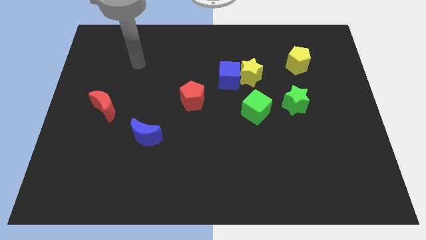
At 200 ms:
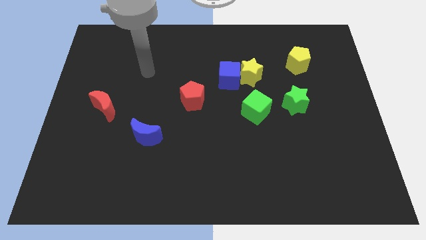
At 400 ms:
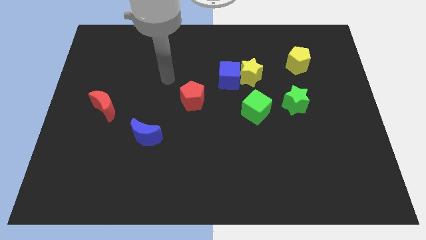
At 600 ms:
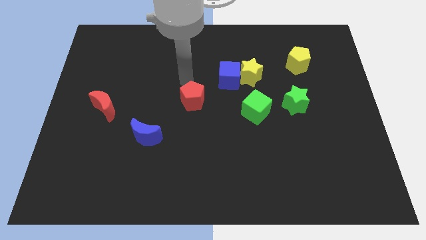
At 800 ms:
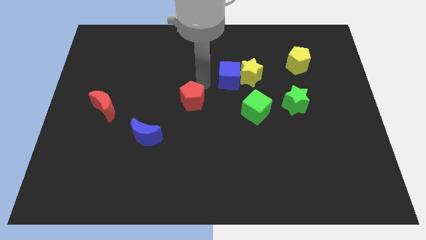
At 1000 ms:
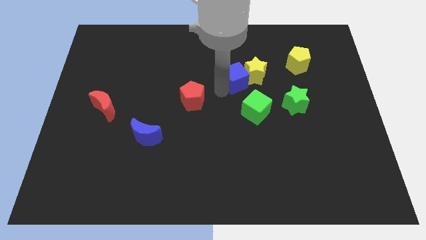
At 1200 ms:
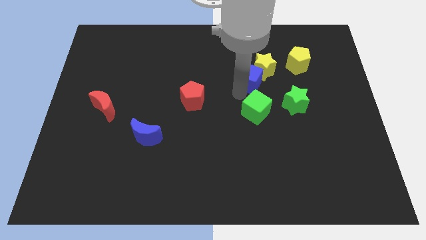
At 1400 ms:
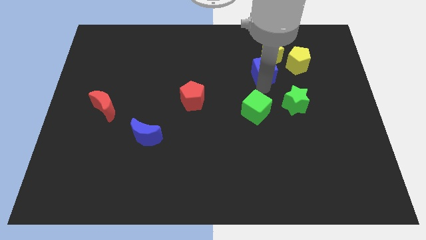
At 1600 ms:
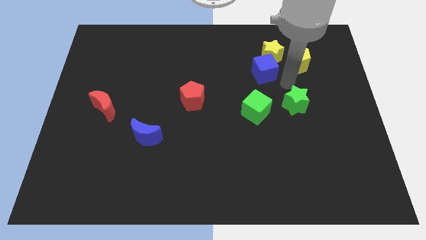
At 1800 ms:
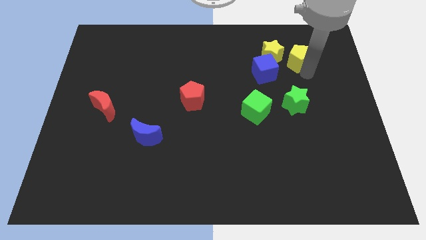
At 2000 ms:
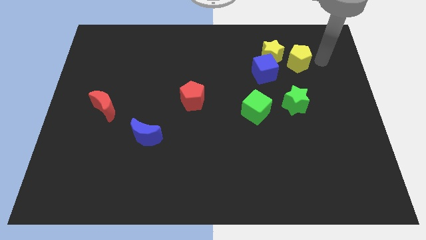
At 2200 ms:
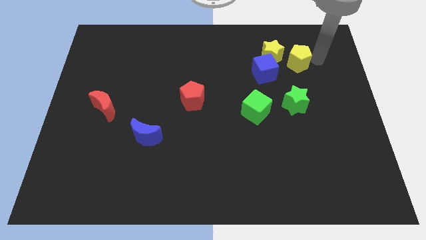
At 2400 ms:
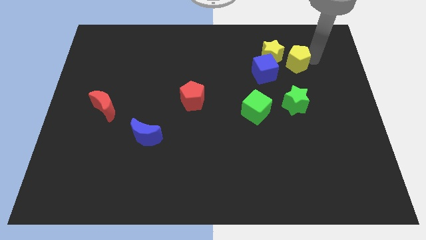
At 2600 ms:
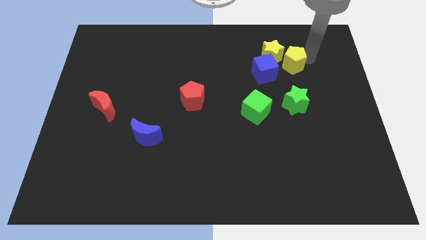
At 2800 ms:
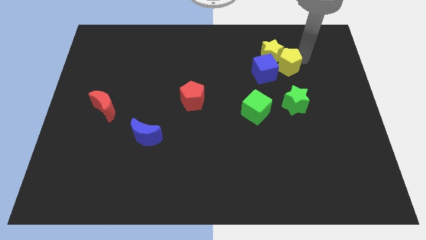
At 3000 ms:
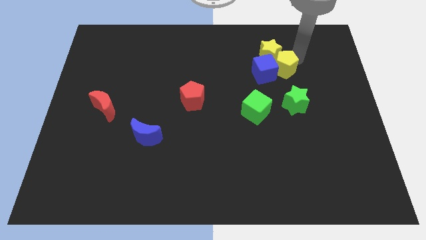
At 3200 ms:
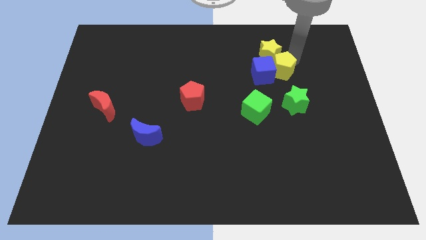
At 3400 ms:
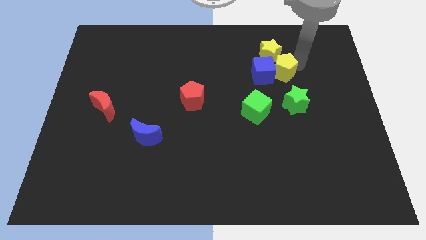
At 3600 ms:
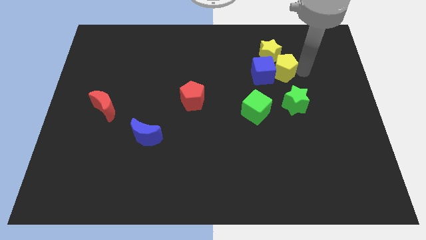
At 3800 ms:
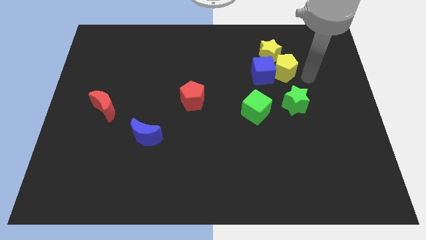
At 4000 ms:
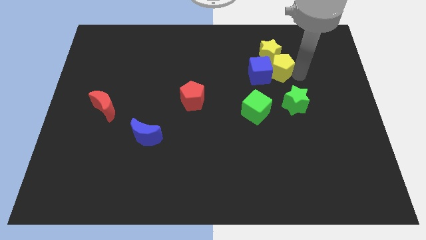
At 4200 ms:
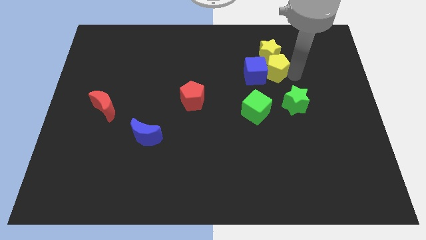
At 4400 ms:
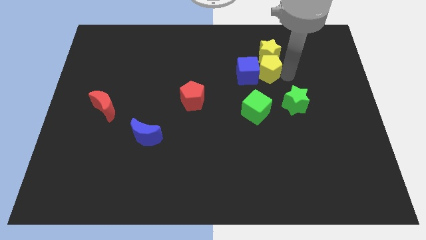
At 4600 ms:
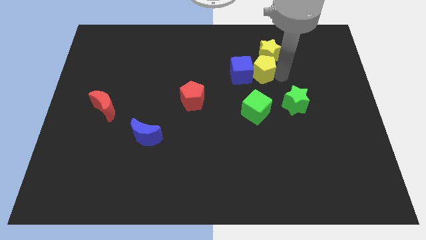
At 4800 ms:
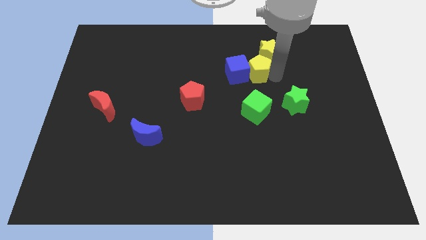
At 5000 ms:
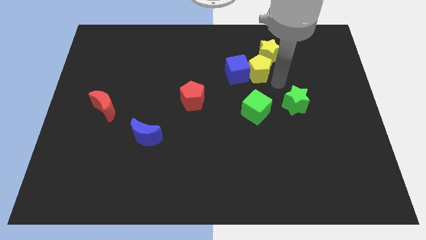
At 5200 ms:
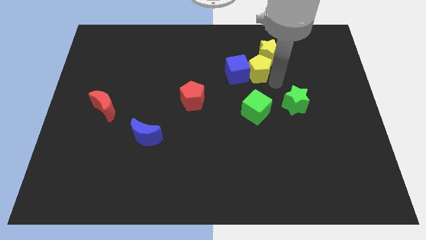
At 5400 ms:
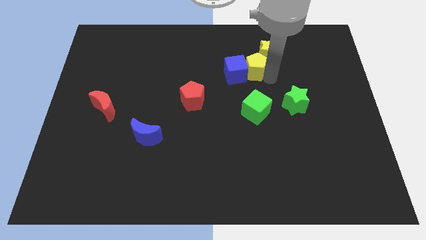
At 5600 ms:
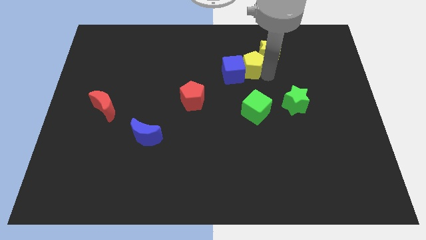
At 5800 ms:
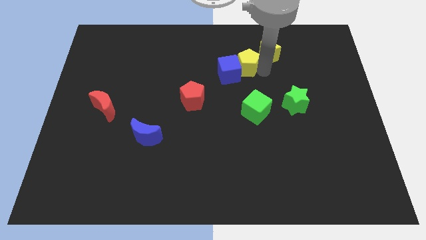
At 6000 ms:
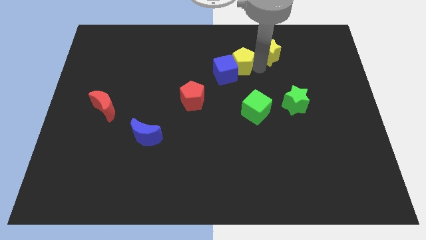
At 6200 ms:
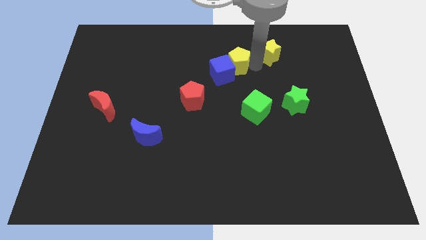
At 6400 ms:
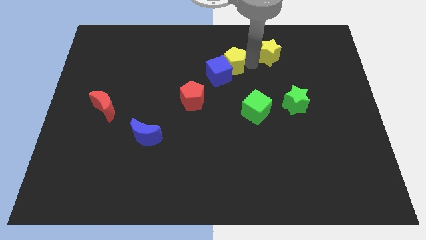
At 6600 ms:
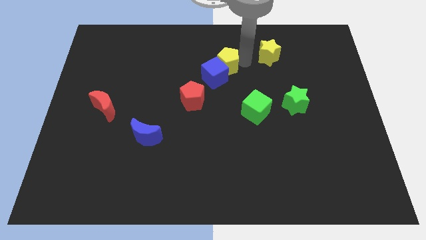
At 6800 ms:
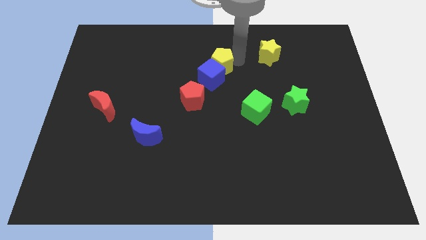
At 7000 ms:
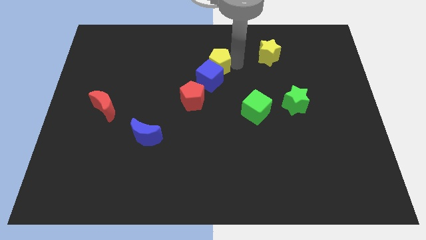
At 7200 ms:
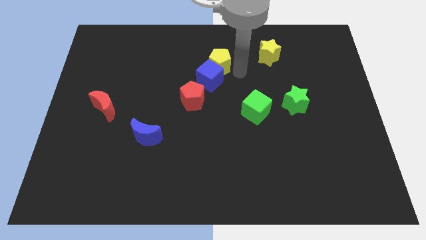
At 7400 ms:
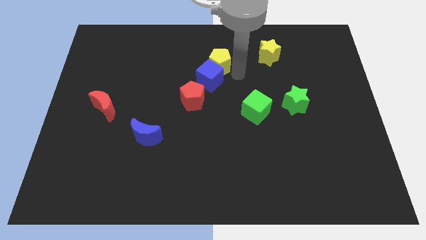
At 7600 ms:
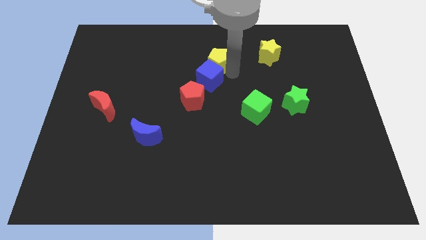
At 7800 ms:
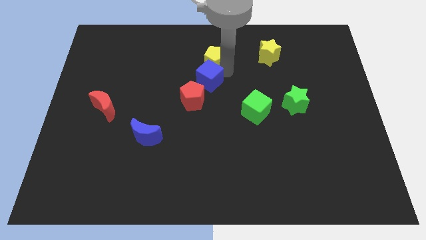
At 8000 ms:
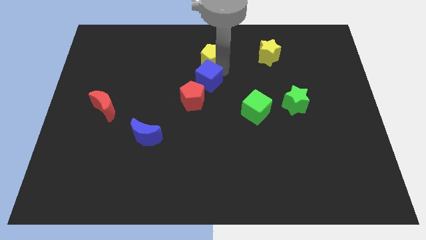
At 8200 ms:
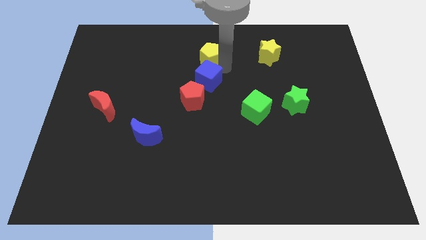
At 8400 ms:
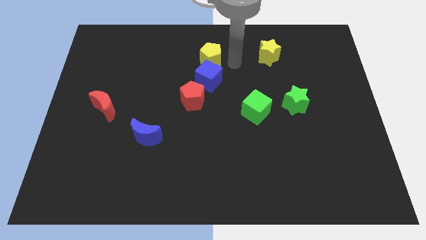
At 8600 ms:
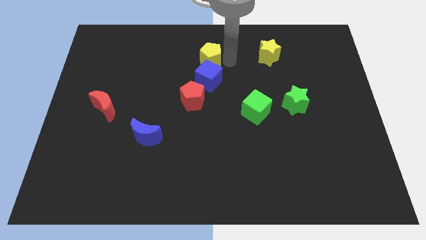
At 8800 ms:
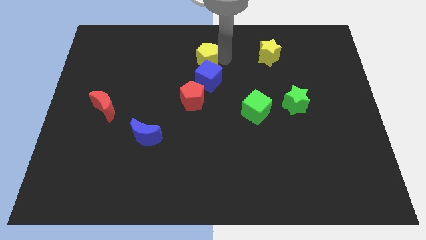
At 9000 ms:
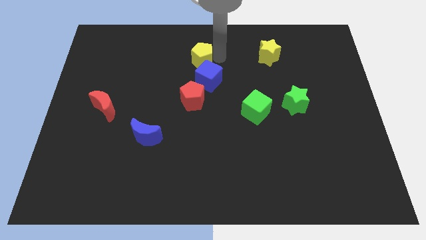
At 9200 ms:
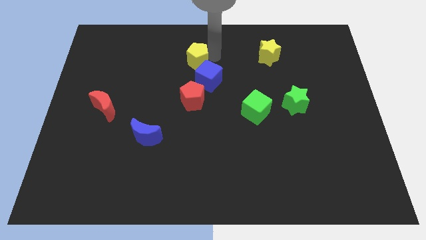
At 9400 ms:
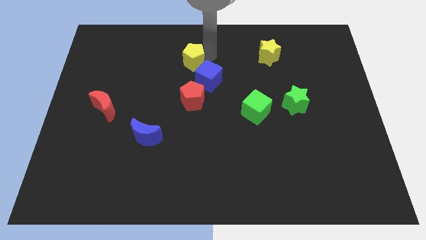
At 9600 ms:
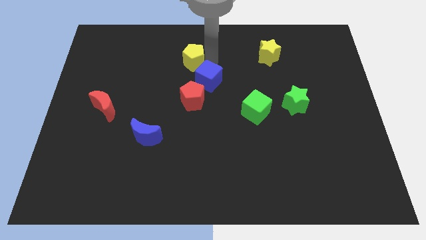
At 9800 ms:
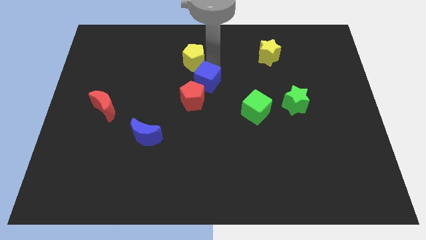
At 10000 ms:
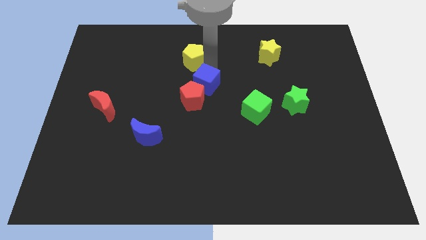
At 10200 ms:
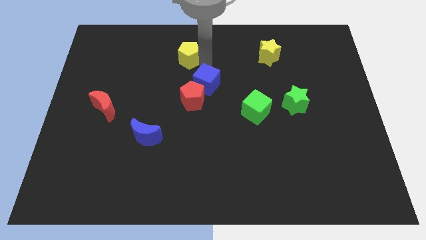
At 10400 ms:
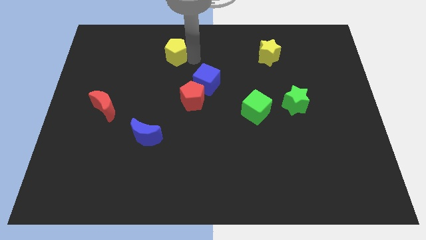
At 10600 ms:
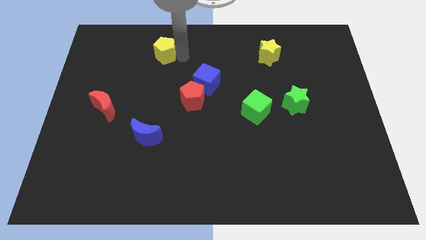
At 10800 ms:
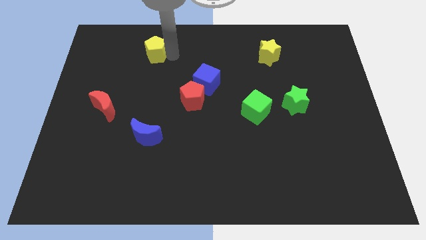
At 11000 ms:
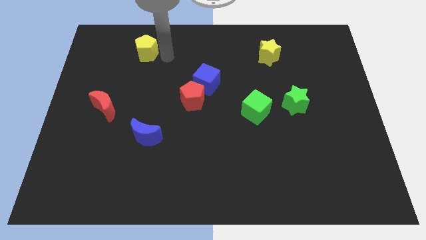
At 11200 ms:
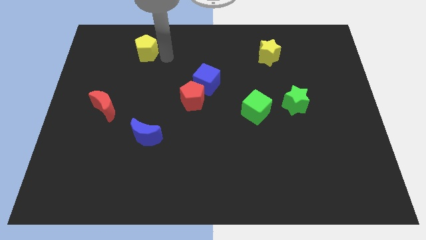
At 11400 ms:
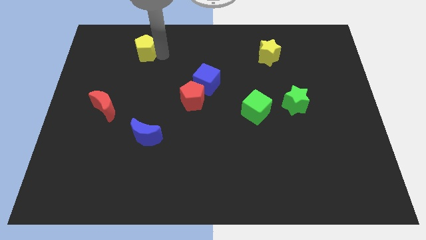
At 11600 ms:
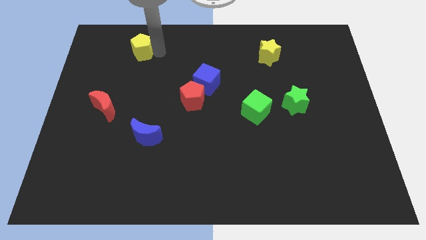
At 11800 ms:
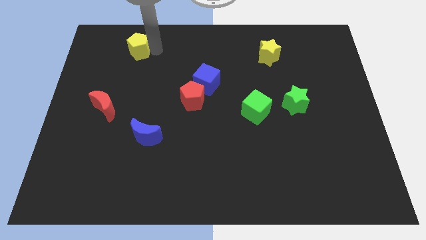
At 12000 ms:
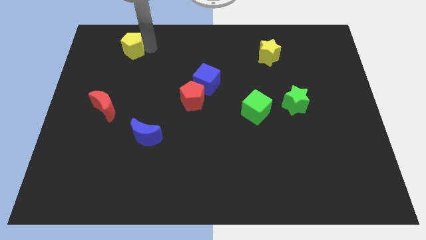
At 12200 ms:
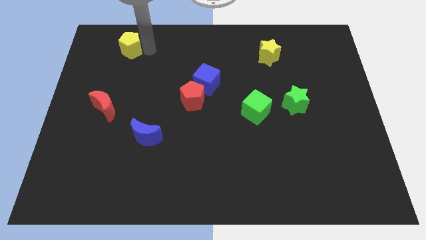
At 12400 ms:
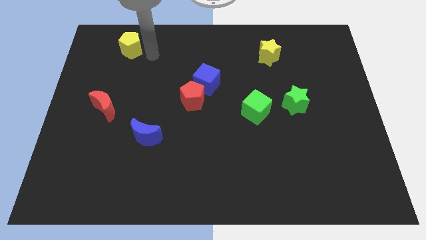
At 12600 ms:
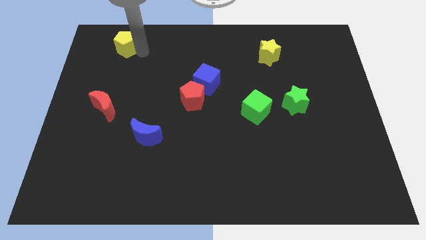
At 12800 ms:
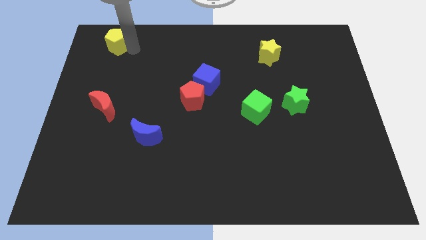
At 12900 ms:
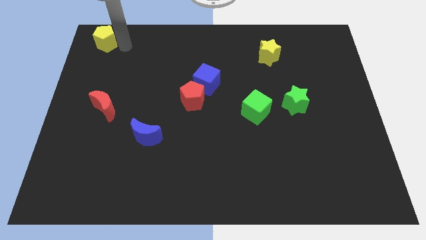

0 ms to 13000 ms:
put the yellow pentagon to the top left of the board
